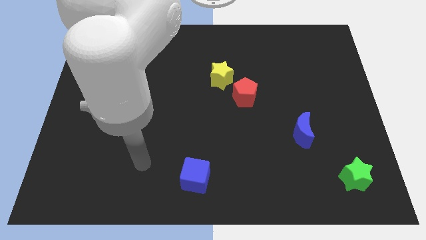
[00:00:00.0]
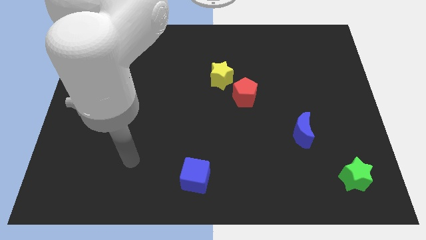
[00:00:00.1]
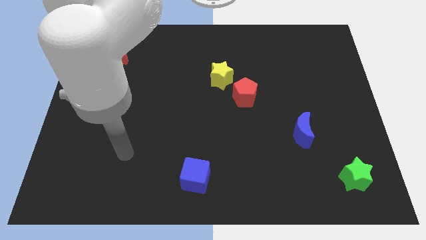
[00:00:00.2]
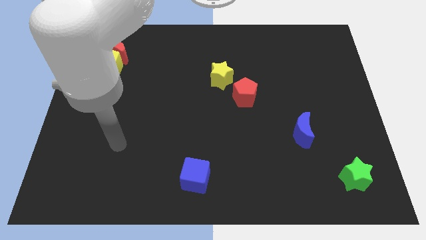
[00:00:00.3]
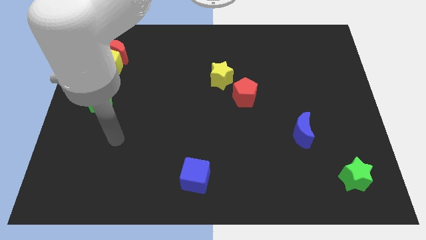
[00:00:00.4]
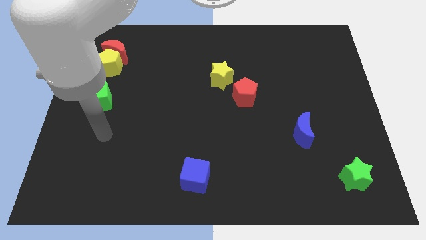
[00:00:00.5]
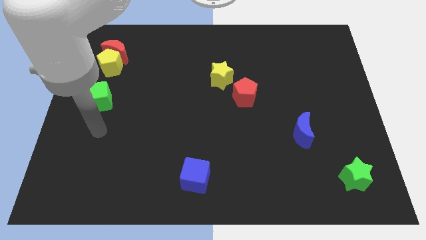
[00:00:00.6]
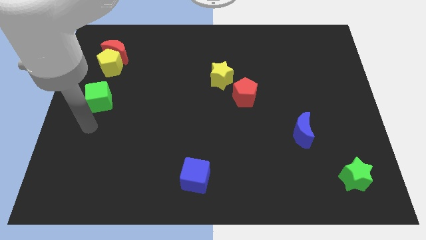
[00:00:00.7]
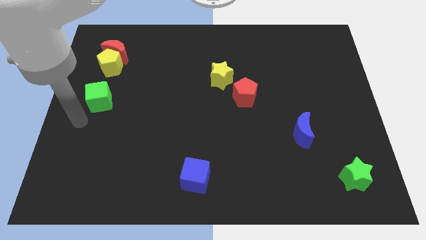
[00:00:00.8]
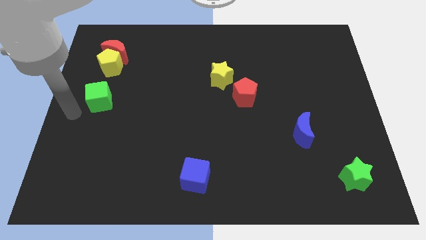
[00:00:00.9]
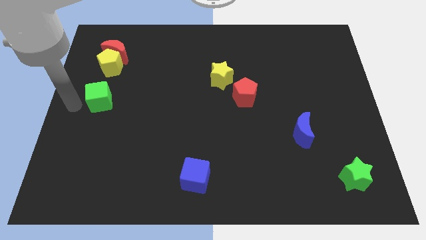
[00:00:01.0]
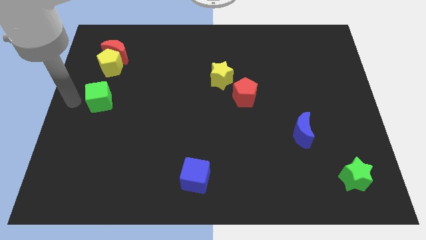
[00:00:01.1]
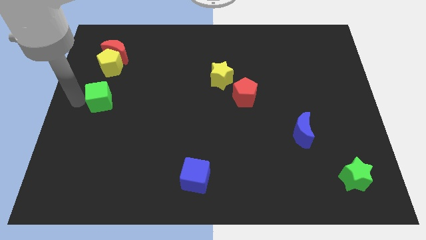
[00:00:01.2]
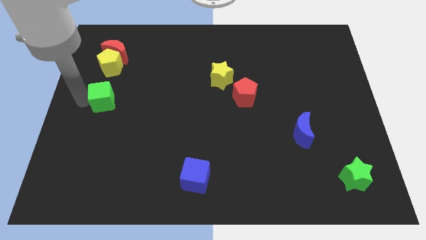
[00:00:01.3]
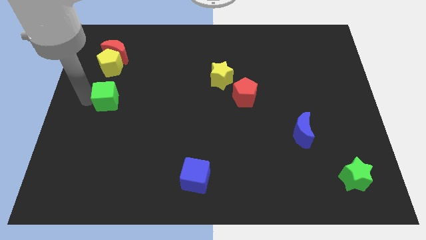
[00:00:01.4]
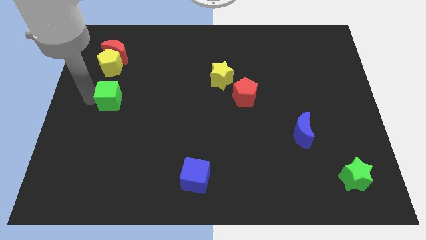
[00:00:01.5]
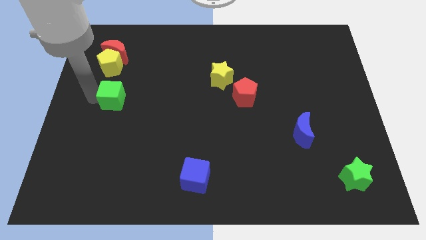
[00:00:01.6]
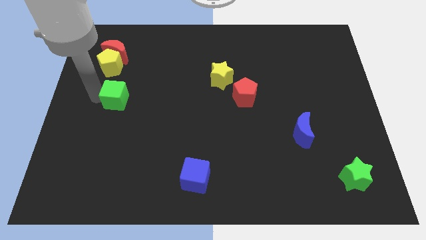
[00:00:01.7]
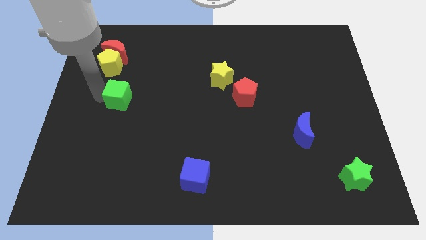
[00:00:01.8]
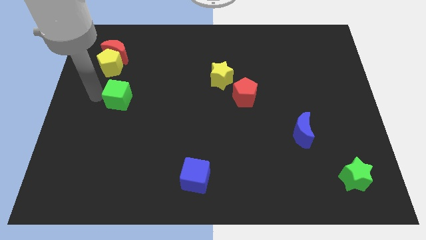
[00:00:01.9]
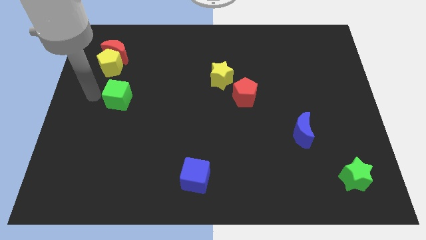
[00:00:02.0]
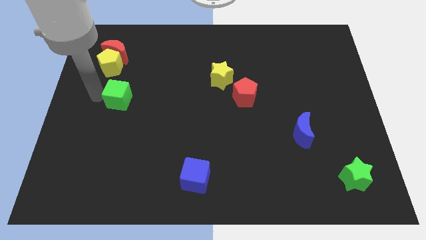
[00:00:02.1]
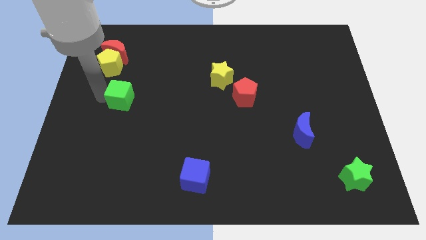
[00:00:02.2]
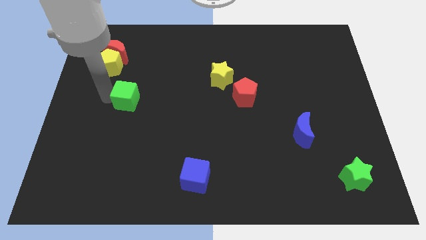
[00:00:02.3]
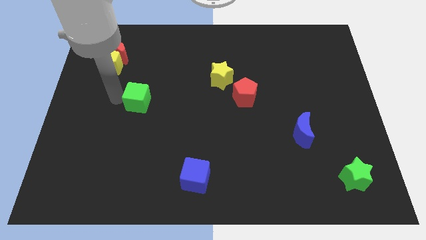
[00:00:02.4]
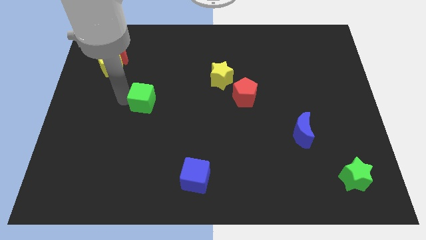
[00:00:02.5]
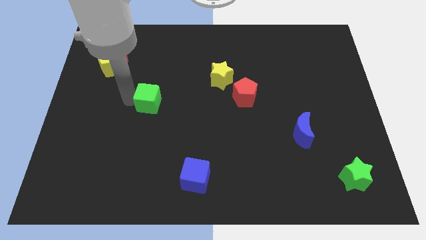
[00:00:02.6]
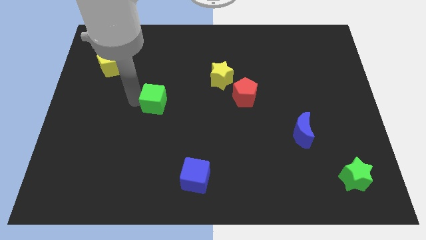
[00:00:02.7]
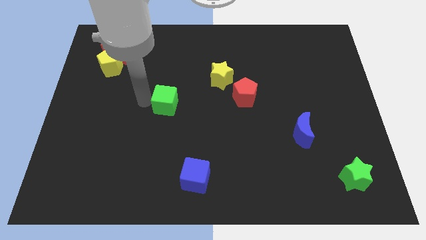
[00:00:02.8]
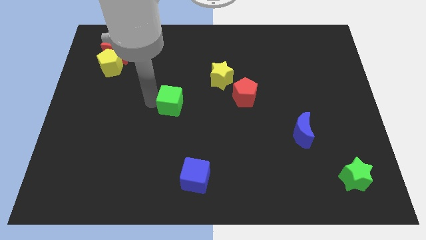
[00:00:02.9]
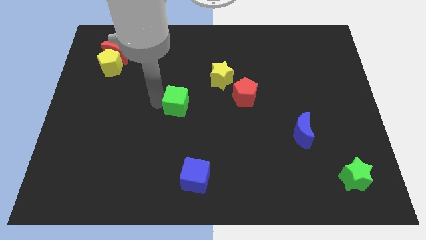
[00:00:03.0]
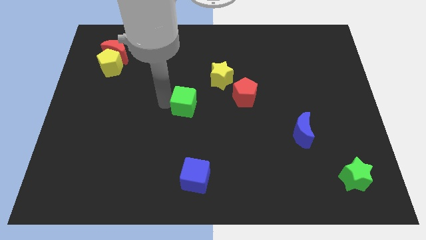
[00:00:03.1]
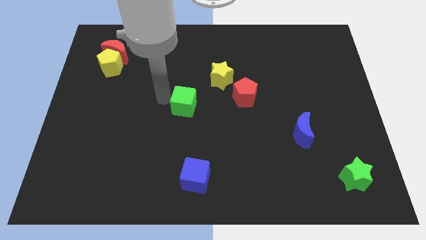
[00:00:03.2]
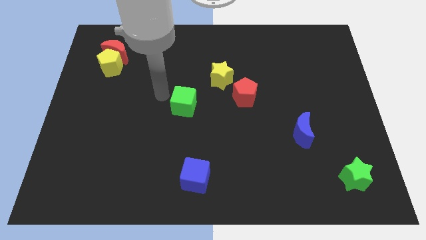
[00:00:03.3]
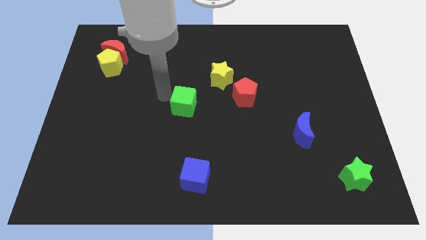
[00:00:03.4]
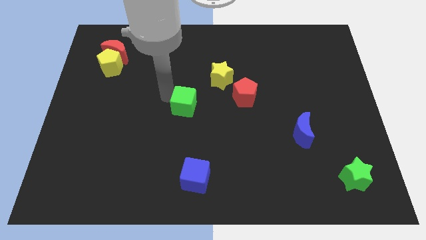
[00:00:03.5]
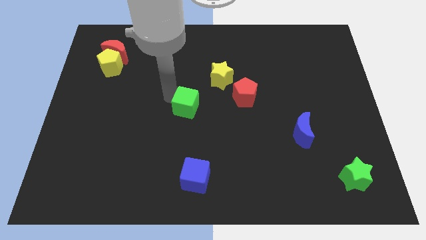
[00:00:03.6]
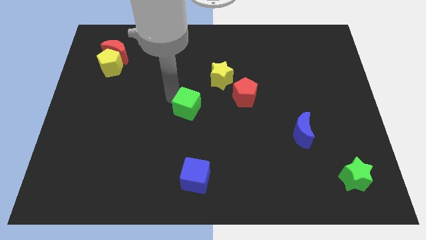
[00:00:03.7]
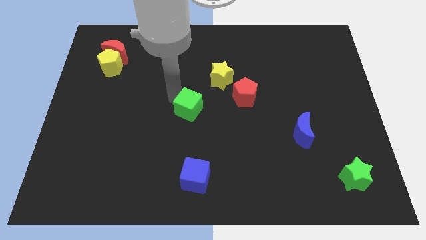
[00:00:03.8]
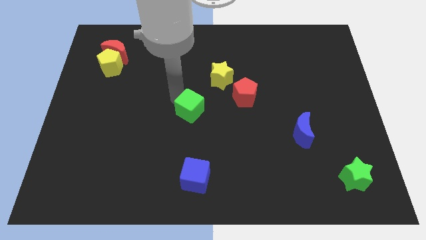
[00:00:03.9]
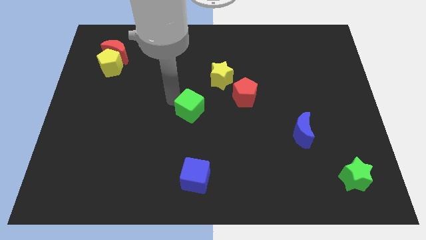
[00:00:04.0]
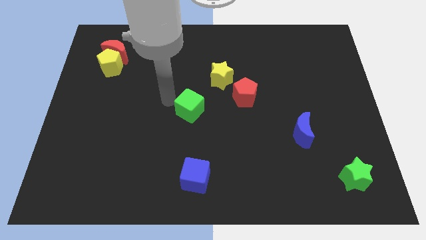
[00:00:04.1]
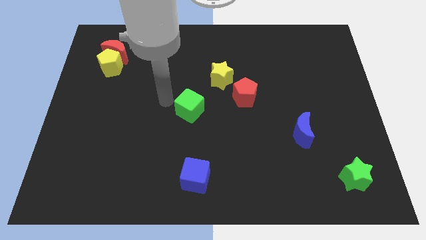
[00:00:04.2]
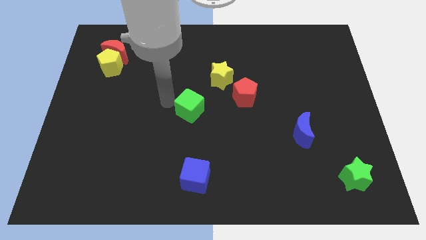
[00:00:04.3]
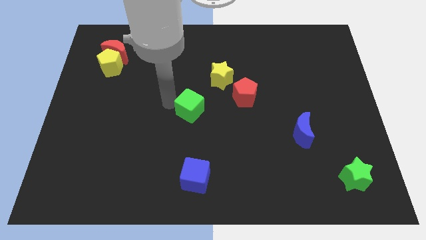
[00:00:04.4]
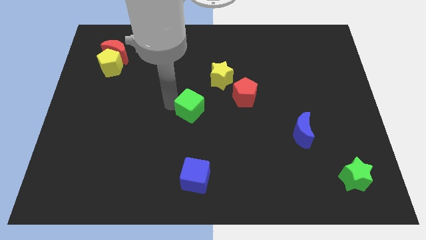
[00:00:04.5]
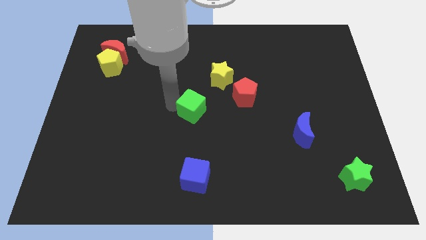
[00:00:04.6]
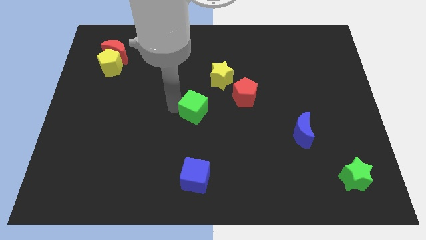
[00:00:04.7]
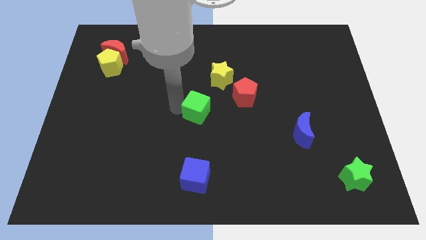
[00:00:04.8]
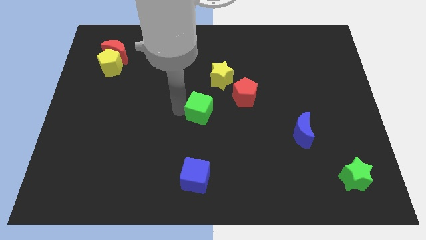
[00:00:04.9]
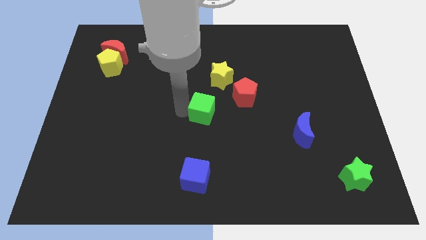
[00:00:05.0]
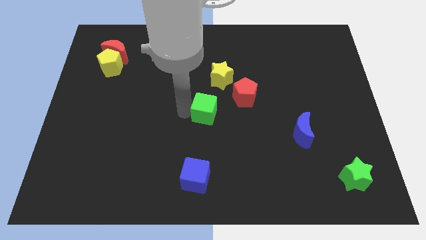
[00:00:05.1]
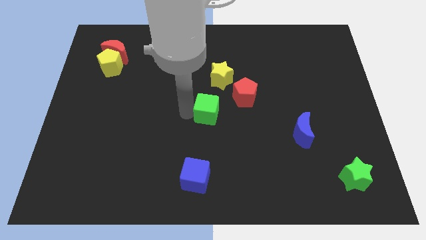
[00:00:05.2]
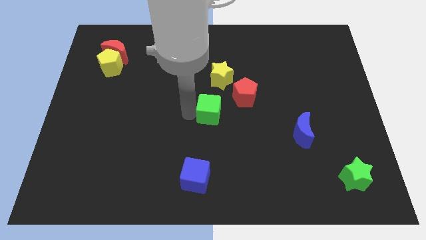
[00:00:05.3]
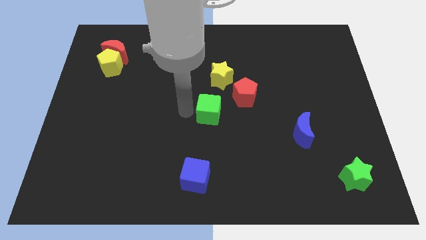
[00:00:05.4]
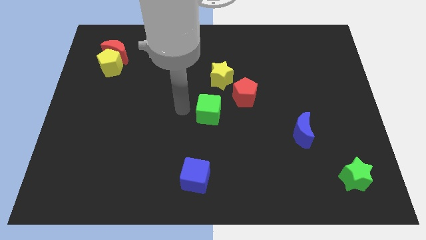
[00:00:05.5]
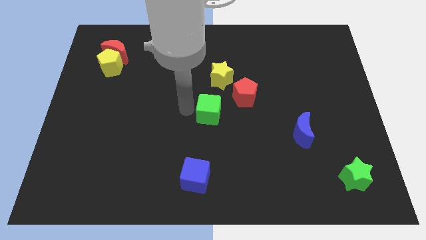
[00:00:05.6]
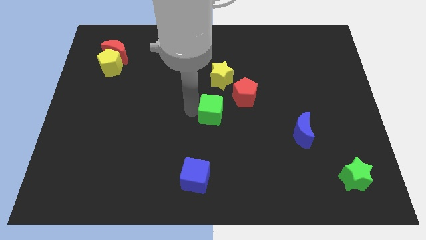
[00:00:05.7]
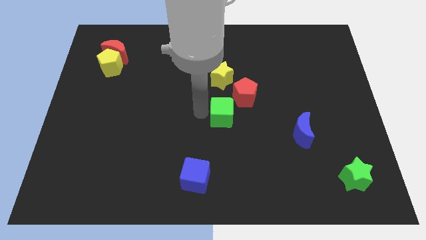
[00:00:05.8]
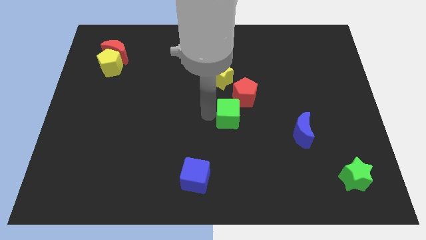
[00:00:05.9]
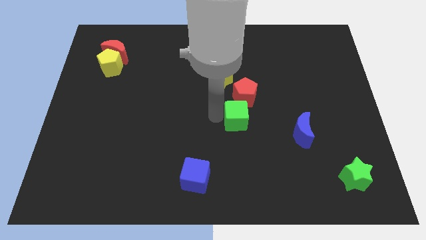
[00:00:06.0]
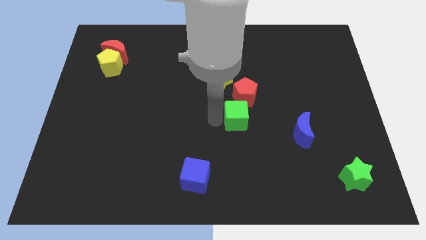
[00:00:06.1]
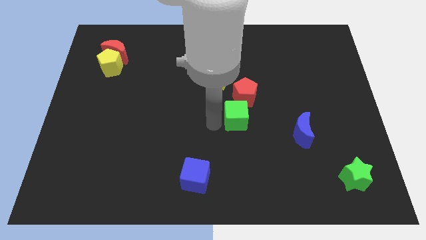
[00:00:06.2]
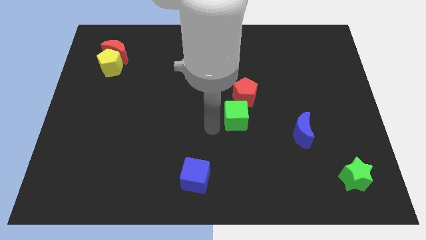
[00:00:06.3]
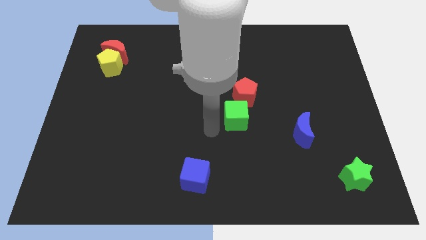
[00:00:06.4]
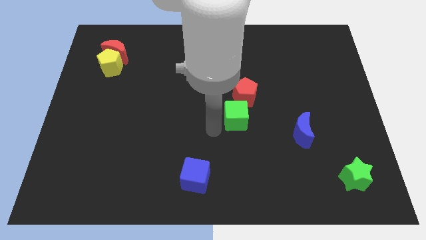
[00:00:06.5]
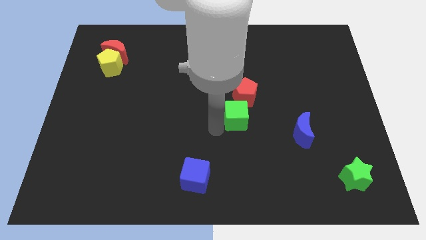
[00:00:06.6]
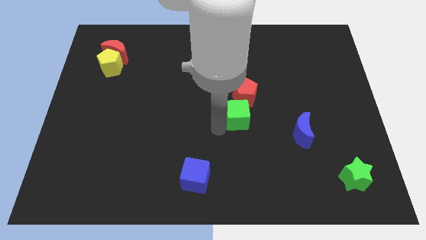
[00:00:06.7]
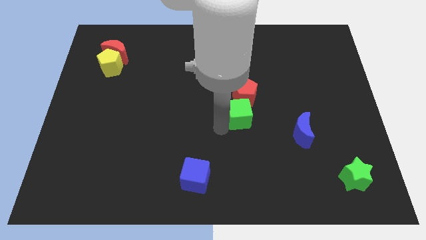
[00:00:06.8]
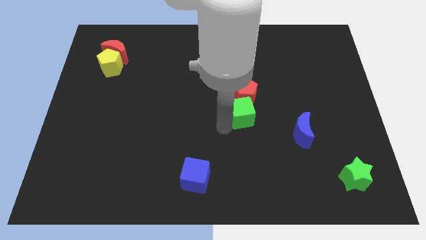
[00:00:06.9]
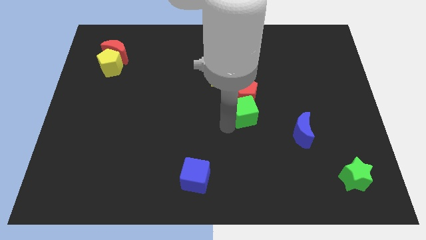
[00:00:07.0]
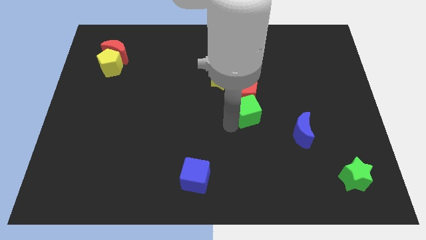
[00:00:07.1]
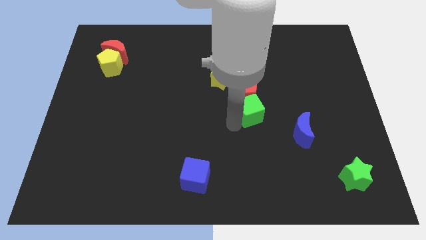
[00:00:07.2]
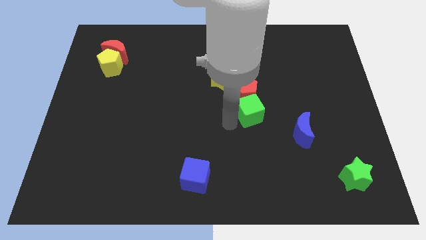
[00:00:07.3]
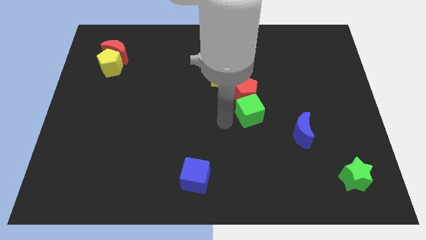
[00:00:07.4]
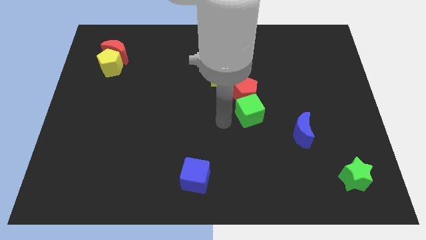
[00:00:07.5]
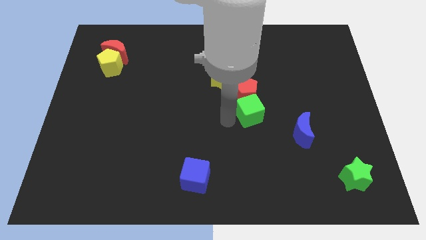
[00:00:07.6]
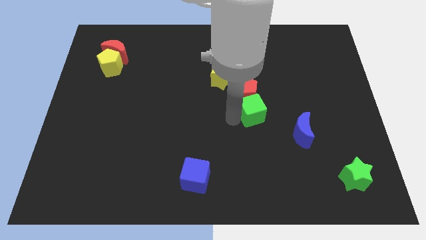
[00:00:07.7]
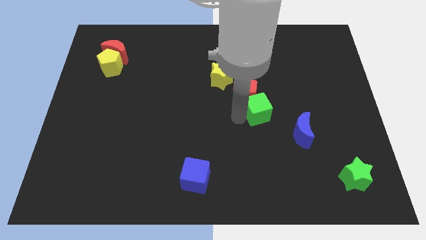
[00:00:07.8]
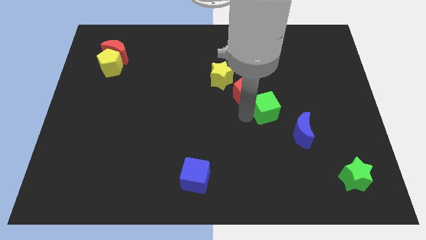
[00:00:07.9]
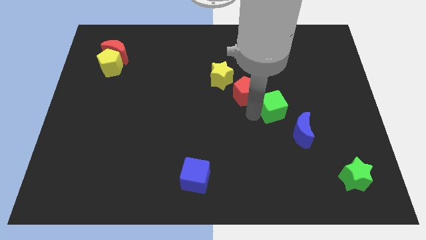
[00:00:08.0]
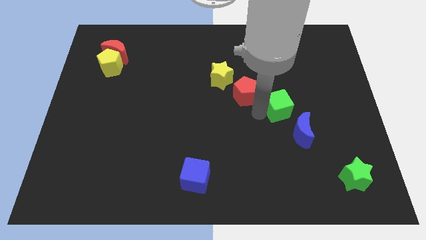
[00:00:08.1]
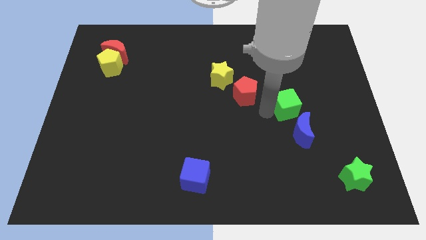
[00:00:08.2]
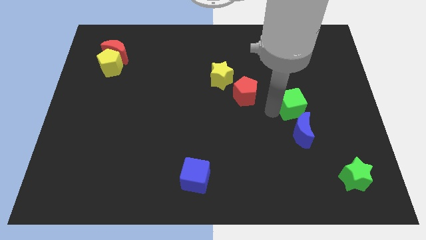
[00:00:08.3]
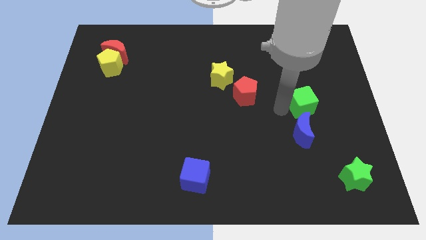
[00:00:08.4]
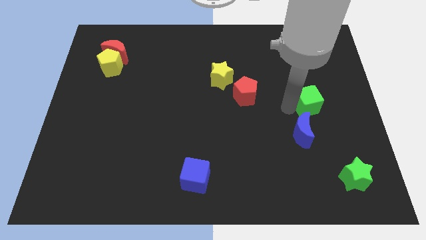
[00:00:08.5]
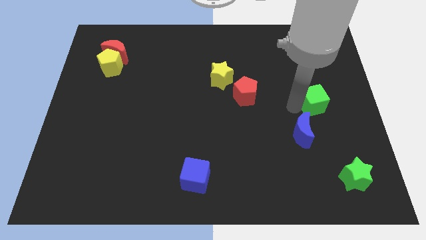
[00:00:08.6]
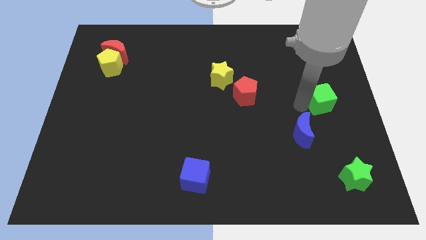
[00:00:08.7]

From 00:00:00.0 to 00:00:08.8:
slide the green cube to the right side of the board
